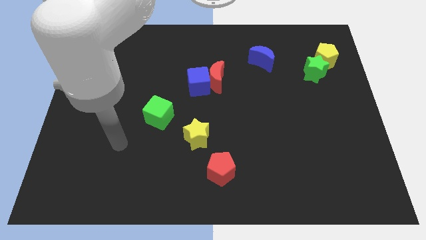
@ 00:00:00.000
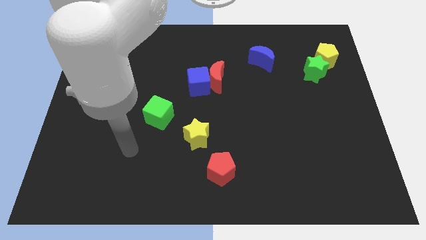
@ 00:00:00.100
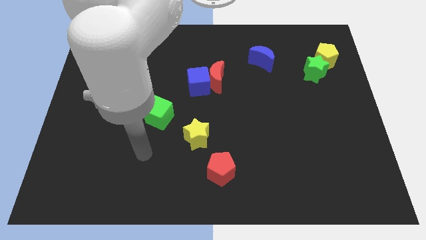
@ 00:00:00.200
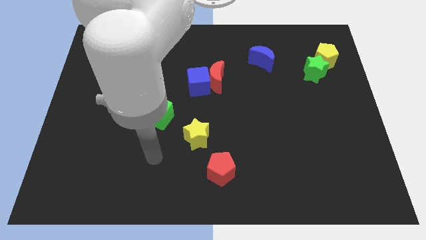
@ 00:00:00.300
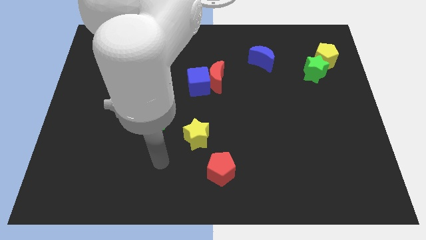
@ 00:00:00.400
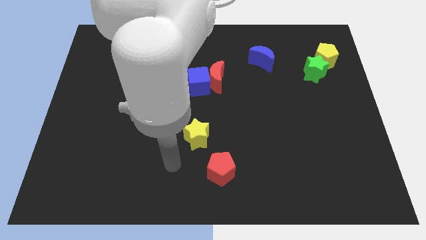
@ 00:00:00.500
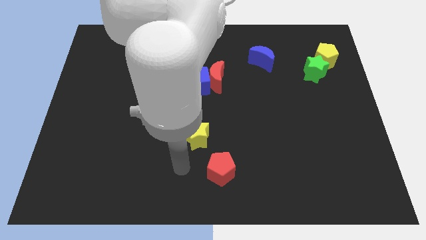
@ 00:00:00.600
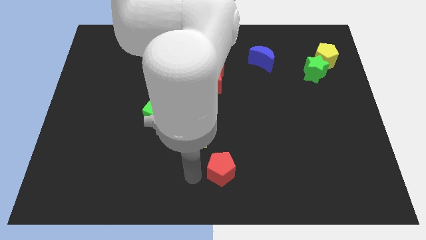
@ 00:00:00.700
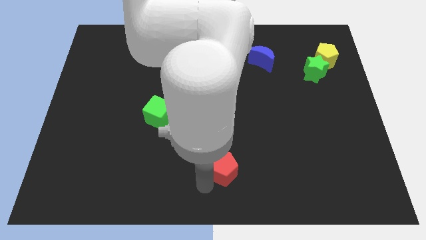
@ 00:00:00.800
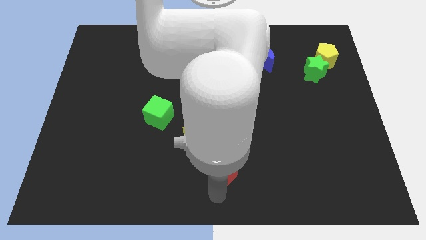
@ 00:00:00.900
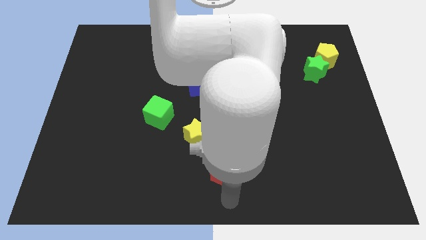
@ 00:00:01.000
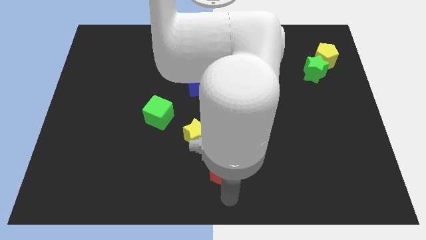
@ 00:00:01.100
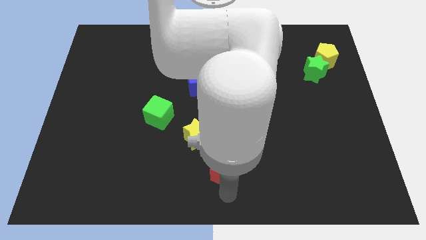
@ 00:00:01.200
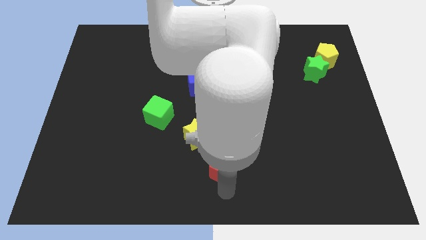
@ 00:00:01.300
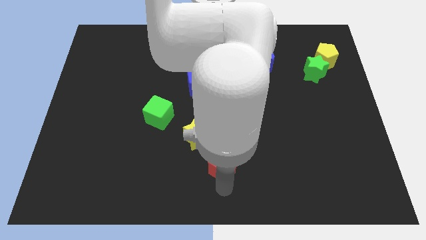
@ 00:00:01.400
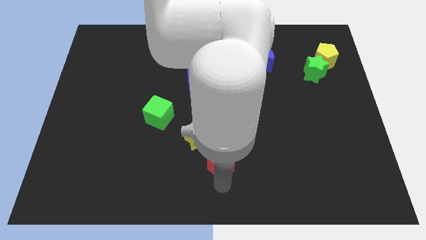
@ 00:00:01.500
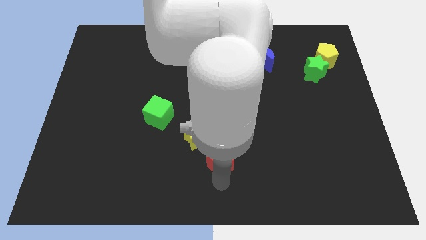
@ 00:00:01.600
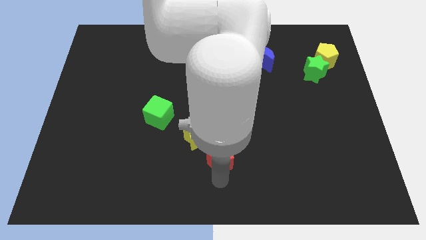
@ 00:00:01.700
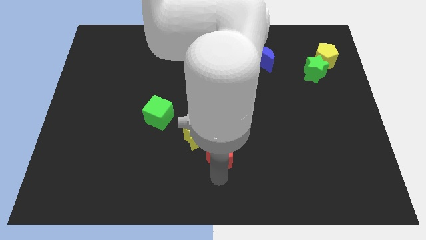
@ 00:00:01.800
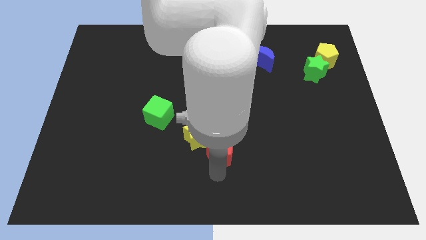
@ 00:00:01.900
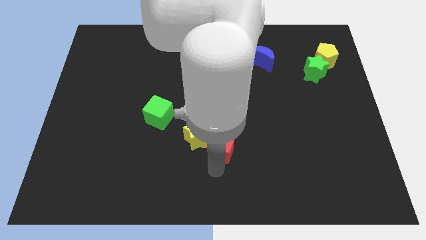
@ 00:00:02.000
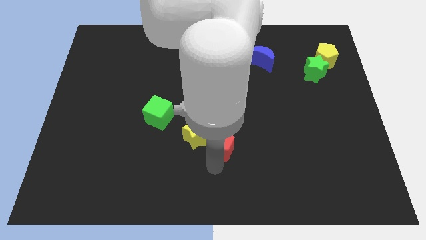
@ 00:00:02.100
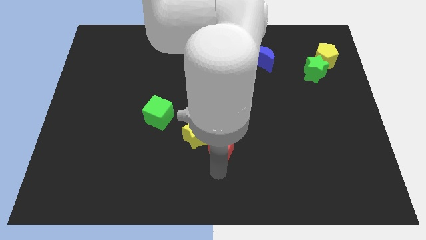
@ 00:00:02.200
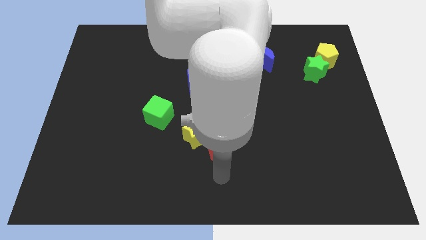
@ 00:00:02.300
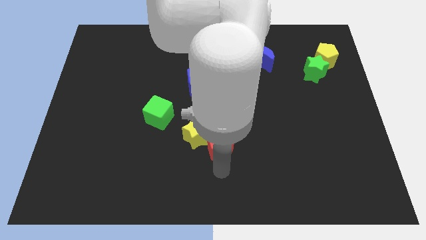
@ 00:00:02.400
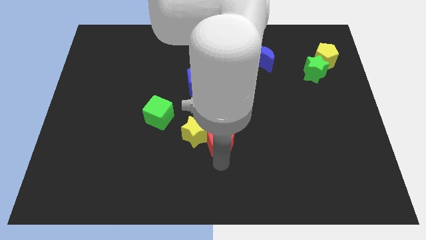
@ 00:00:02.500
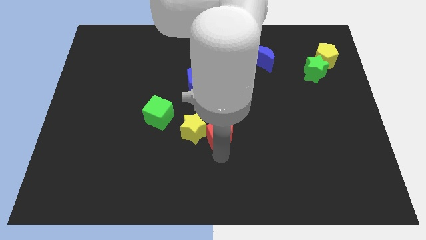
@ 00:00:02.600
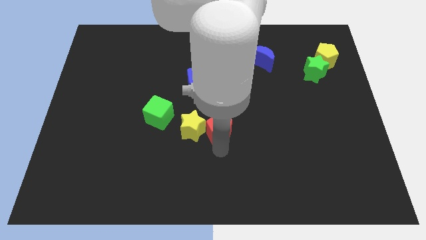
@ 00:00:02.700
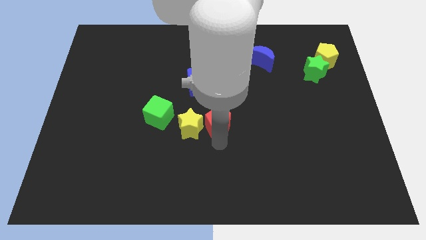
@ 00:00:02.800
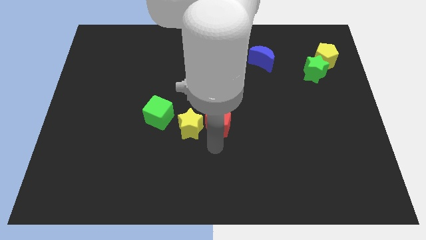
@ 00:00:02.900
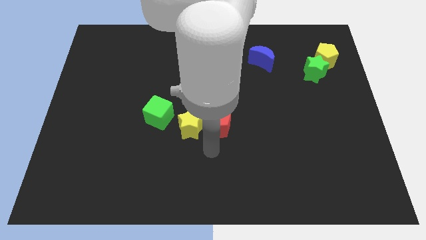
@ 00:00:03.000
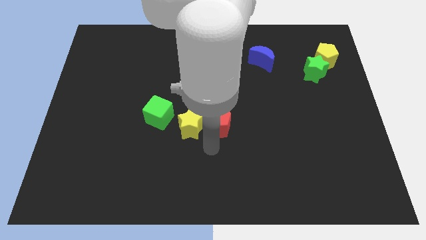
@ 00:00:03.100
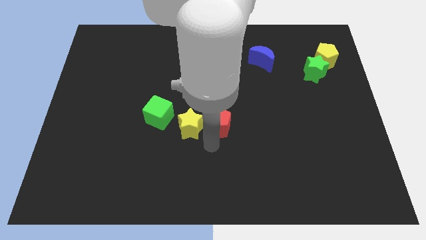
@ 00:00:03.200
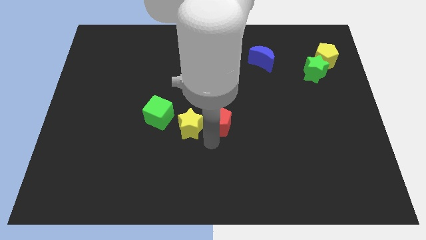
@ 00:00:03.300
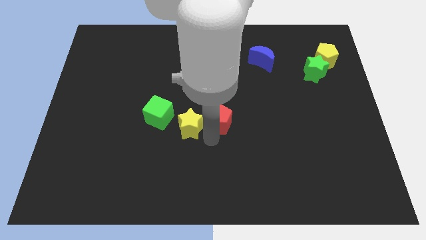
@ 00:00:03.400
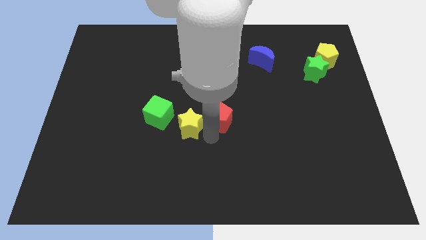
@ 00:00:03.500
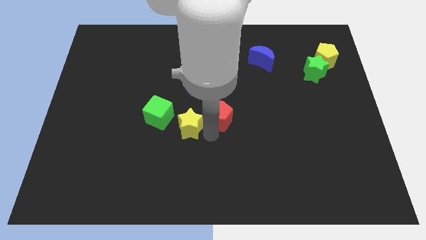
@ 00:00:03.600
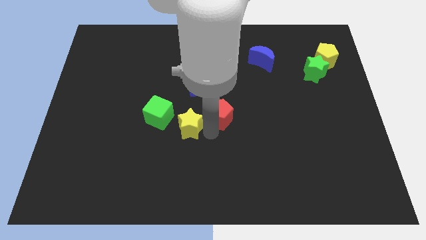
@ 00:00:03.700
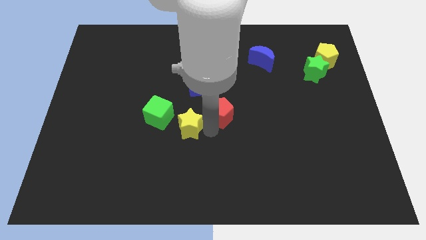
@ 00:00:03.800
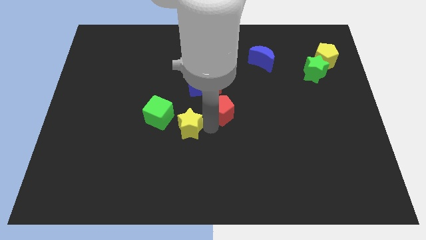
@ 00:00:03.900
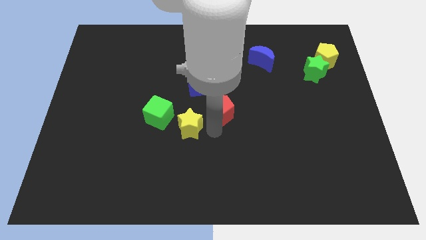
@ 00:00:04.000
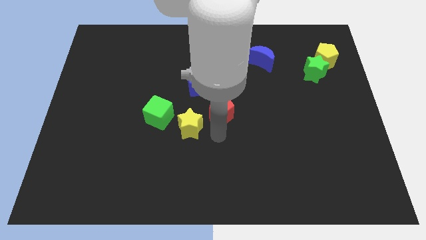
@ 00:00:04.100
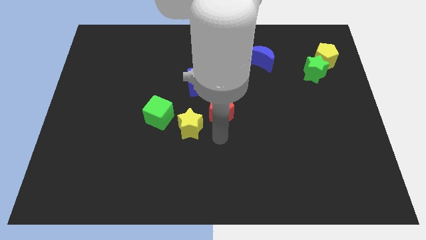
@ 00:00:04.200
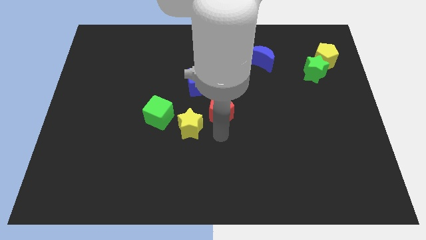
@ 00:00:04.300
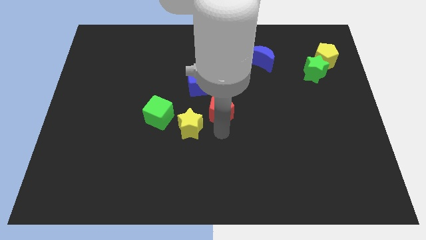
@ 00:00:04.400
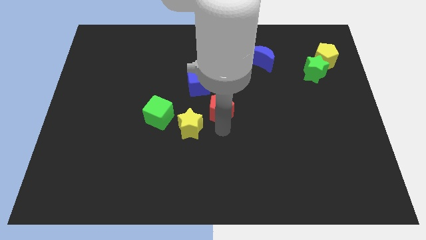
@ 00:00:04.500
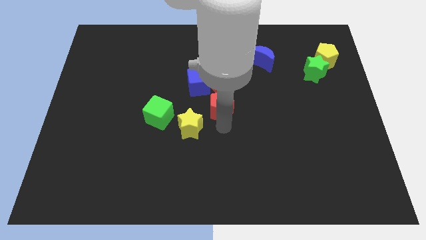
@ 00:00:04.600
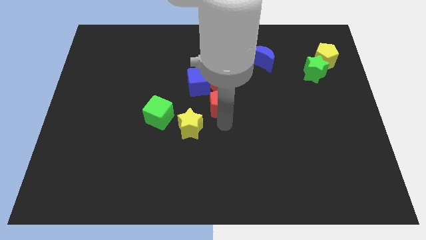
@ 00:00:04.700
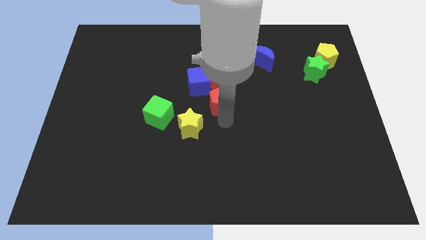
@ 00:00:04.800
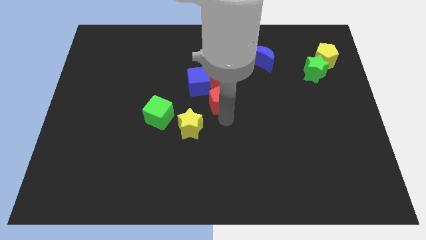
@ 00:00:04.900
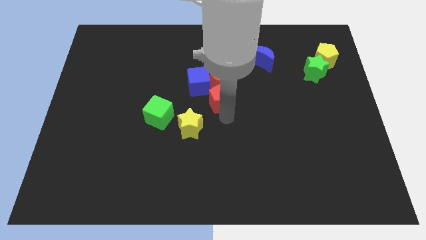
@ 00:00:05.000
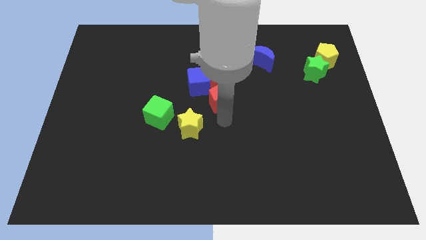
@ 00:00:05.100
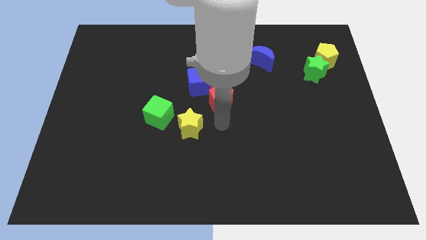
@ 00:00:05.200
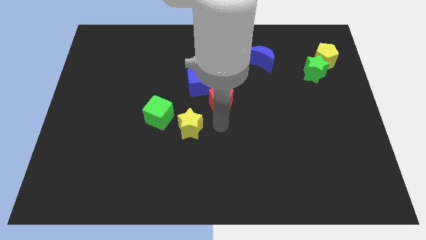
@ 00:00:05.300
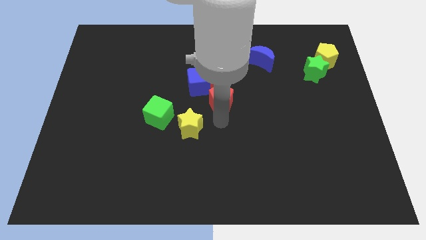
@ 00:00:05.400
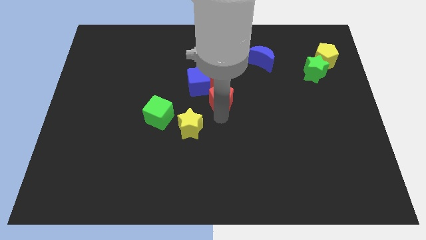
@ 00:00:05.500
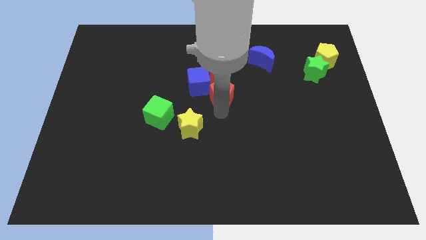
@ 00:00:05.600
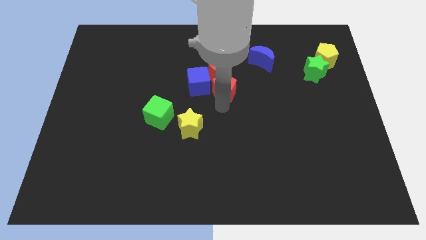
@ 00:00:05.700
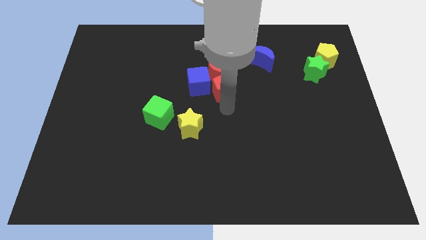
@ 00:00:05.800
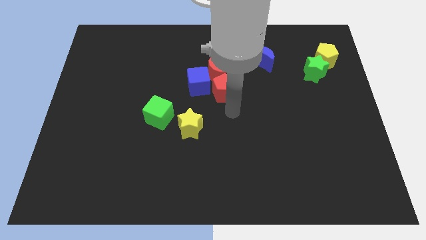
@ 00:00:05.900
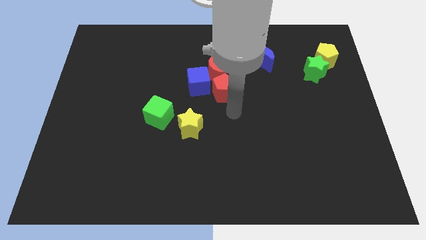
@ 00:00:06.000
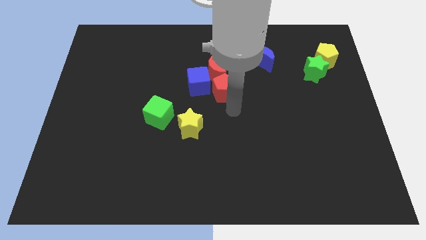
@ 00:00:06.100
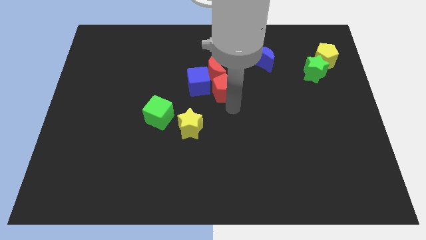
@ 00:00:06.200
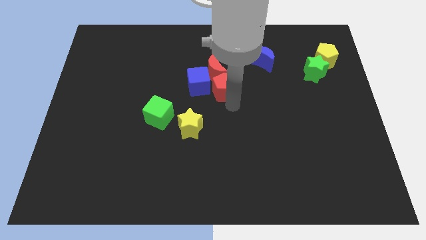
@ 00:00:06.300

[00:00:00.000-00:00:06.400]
push the red pentagon towards the red moon
